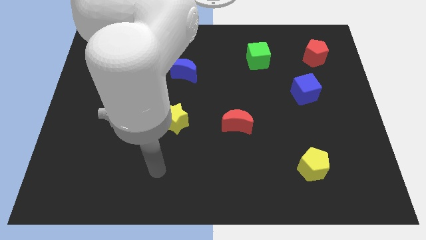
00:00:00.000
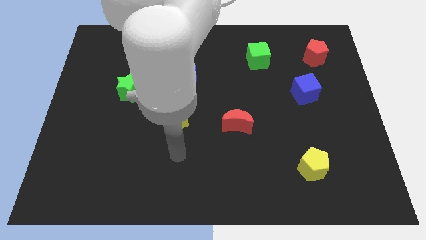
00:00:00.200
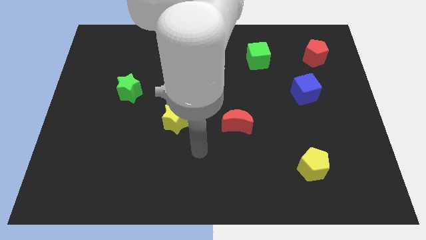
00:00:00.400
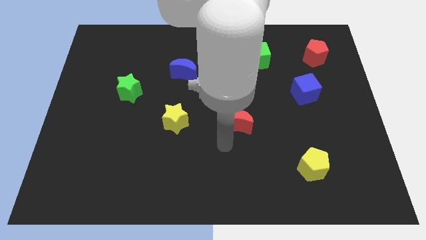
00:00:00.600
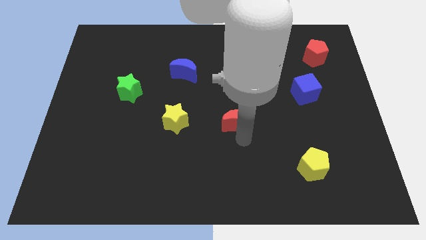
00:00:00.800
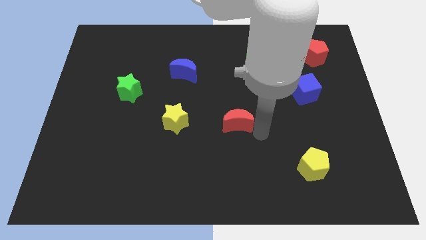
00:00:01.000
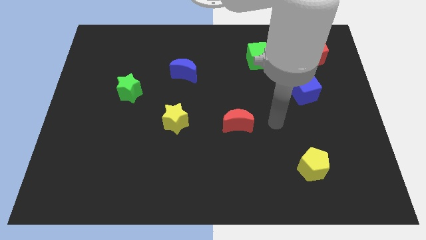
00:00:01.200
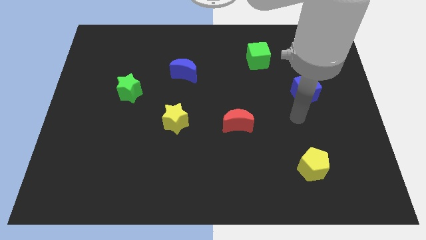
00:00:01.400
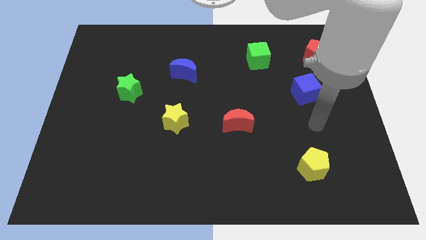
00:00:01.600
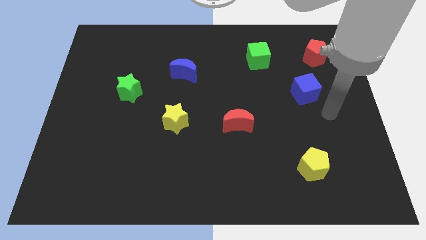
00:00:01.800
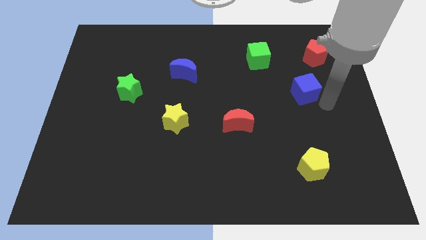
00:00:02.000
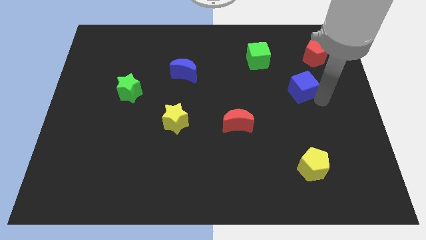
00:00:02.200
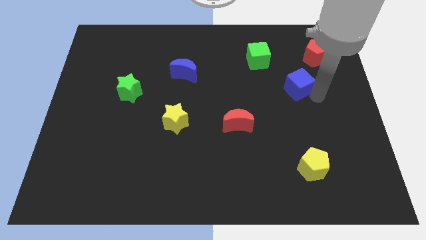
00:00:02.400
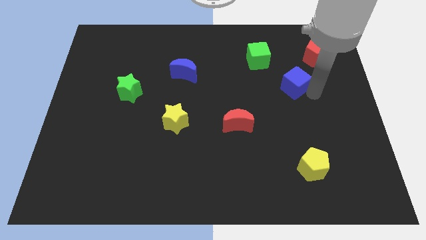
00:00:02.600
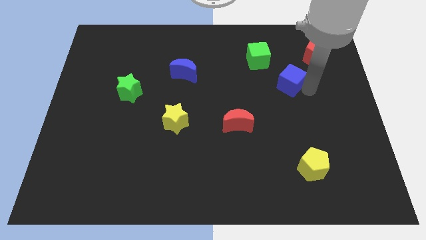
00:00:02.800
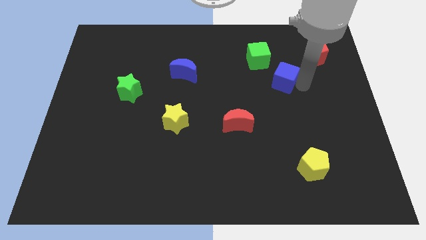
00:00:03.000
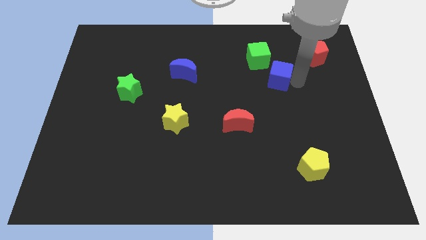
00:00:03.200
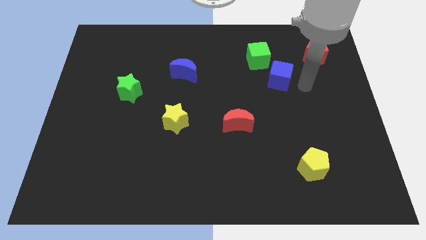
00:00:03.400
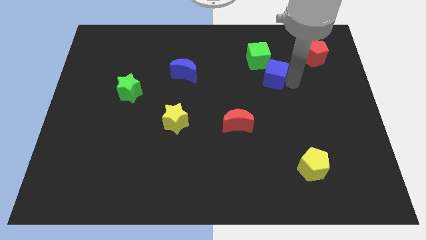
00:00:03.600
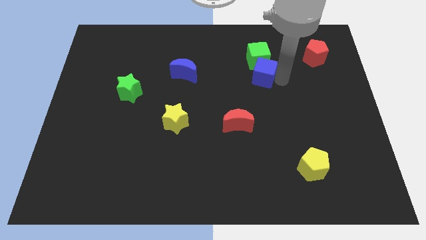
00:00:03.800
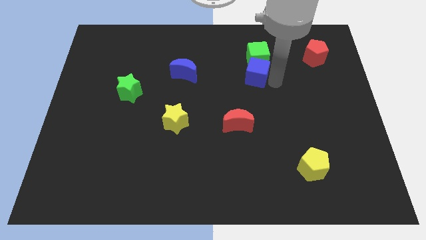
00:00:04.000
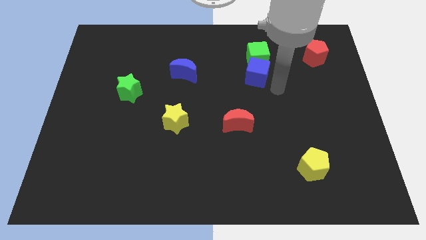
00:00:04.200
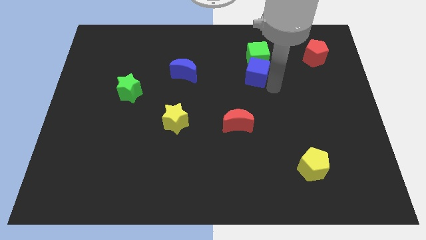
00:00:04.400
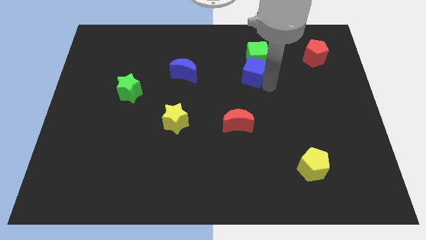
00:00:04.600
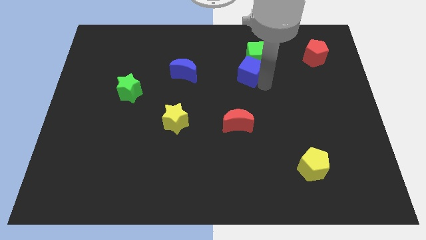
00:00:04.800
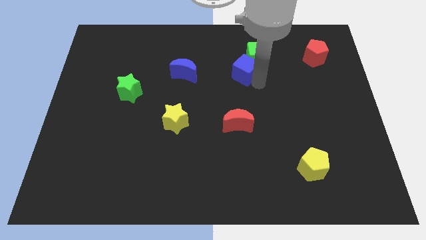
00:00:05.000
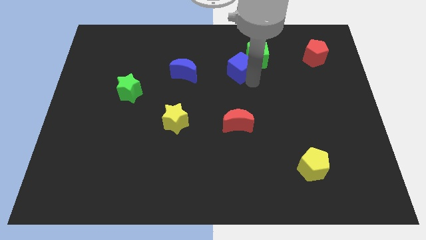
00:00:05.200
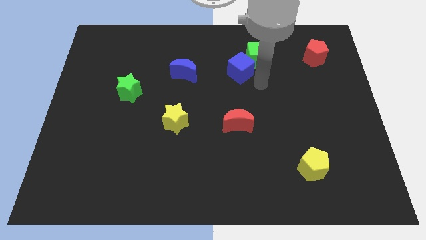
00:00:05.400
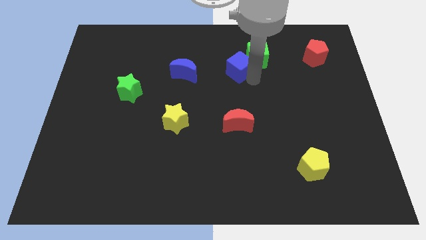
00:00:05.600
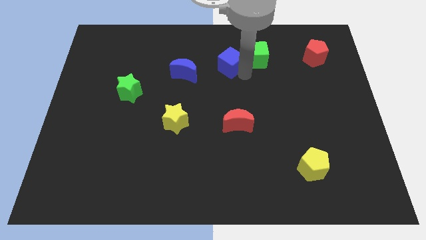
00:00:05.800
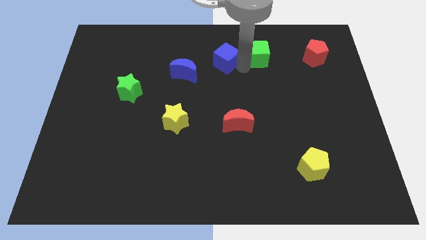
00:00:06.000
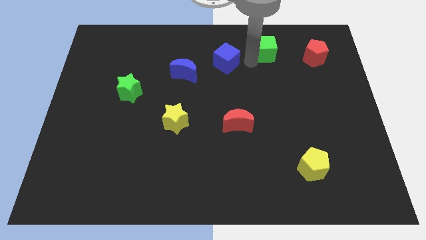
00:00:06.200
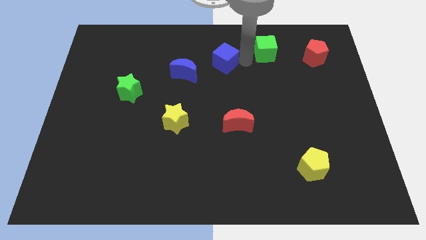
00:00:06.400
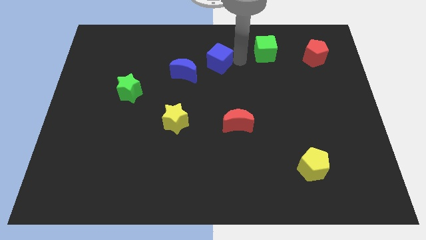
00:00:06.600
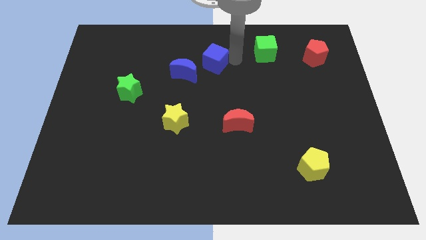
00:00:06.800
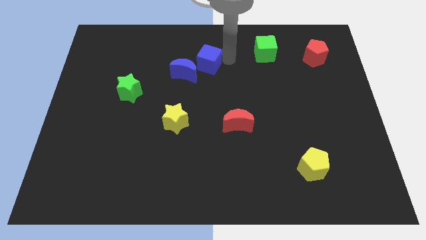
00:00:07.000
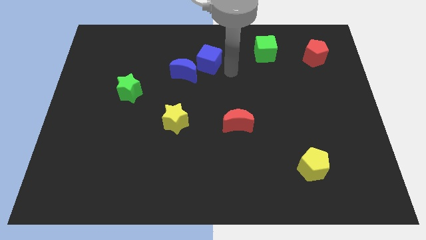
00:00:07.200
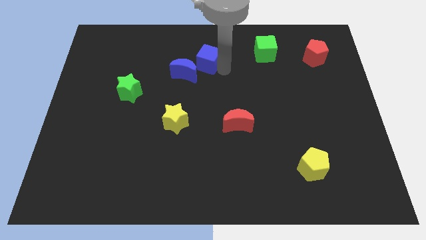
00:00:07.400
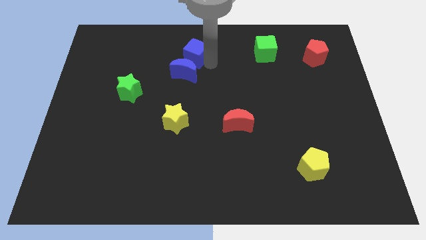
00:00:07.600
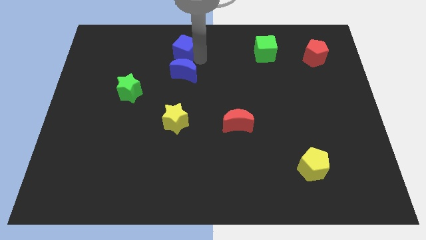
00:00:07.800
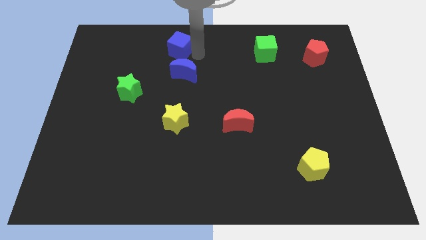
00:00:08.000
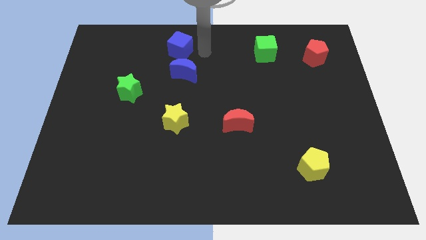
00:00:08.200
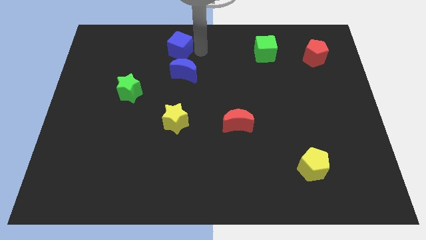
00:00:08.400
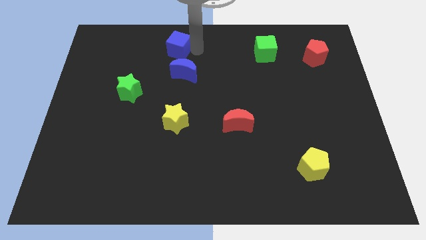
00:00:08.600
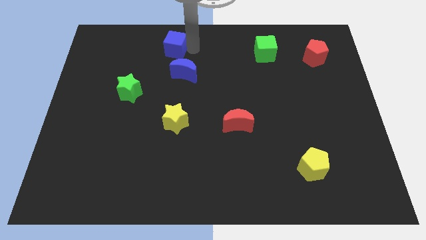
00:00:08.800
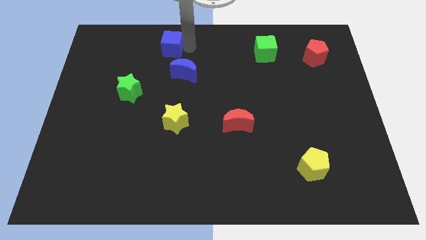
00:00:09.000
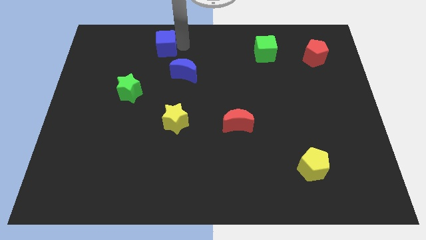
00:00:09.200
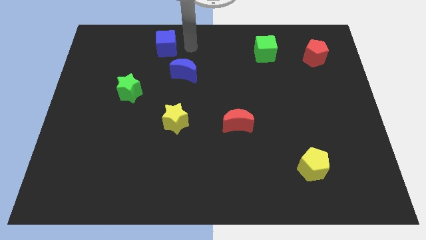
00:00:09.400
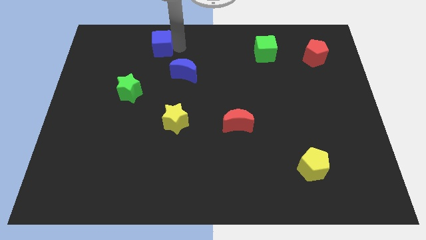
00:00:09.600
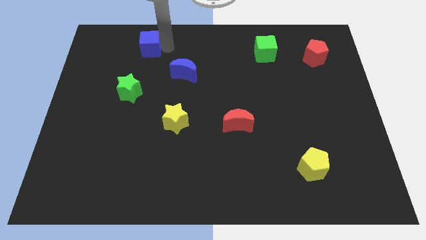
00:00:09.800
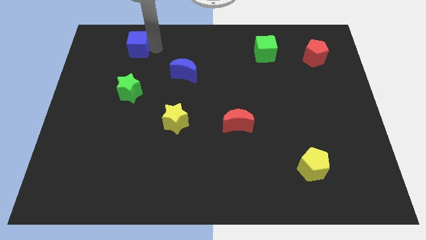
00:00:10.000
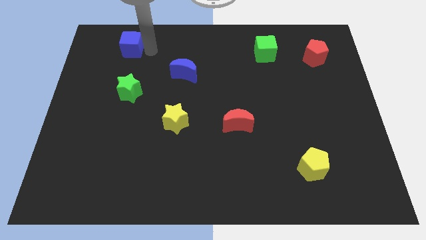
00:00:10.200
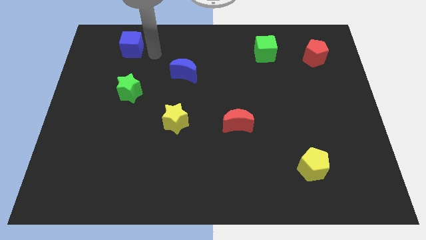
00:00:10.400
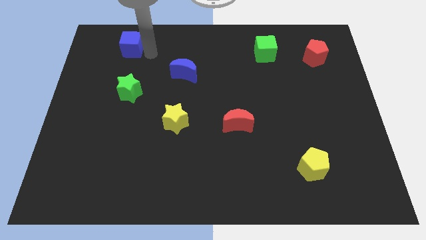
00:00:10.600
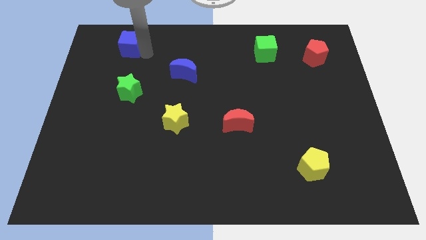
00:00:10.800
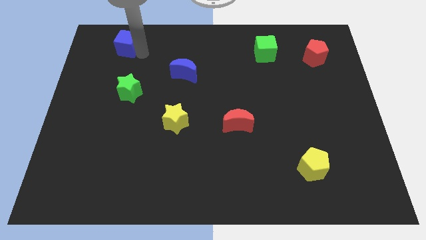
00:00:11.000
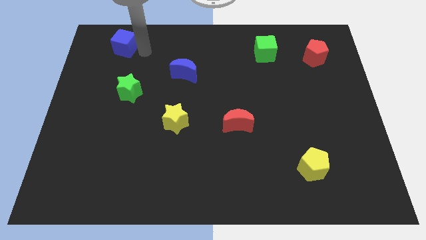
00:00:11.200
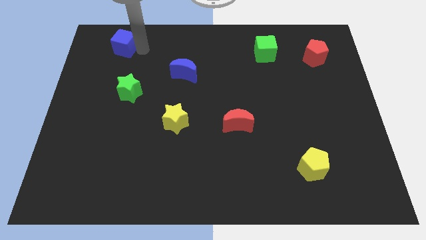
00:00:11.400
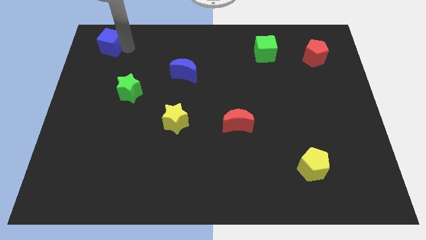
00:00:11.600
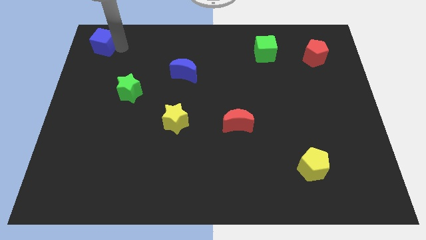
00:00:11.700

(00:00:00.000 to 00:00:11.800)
move the blue cube to the upper left corner
